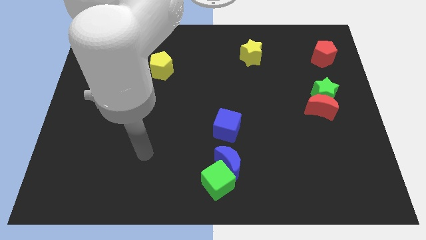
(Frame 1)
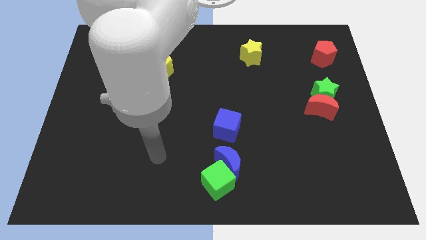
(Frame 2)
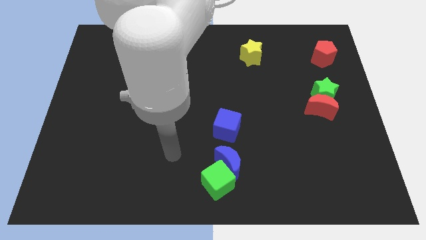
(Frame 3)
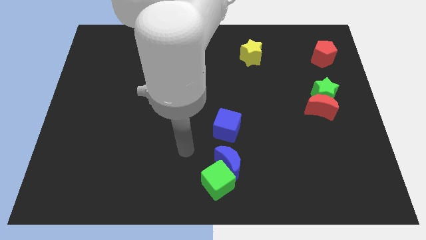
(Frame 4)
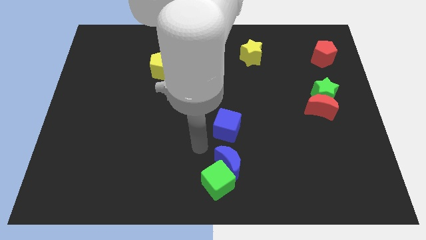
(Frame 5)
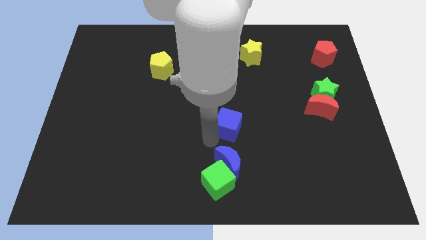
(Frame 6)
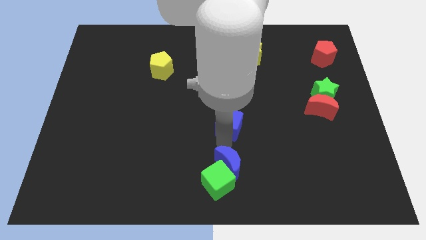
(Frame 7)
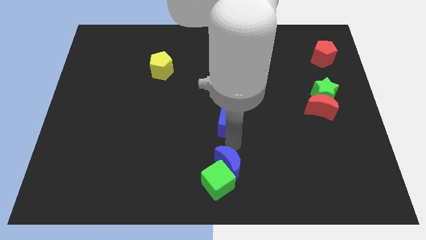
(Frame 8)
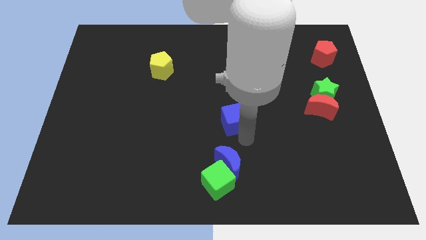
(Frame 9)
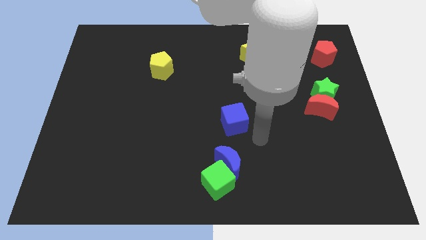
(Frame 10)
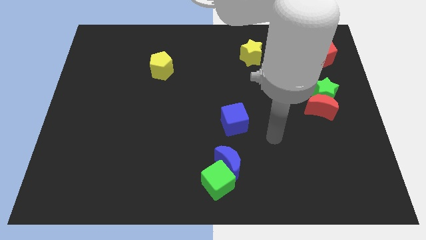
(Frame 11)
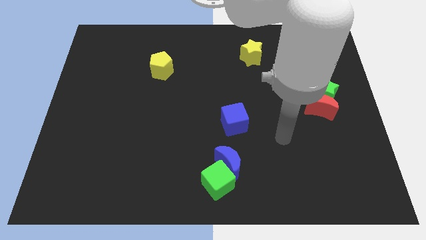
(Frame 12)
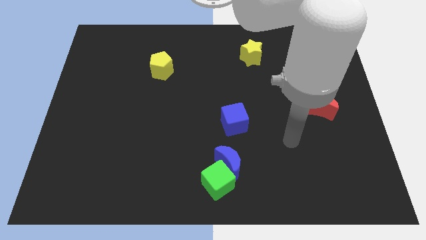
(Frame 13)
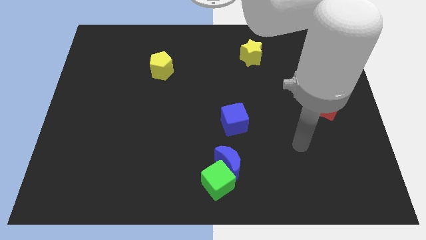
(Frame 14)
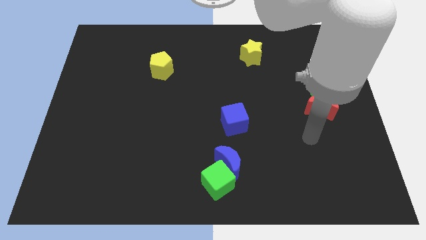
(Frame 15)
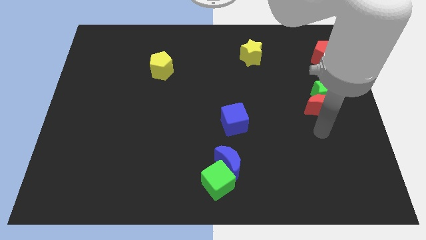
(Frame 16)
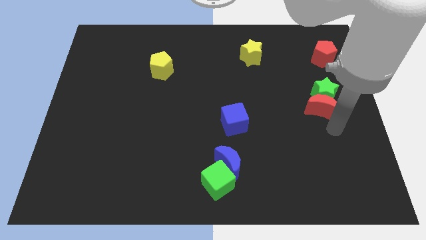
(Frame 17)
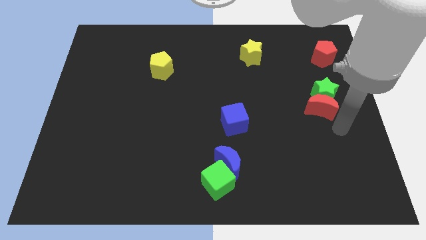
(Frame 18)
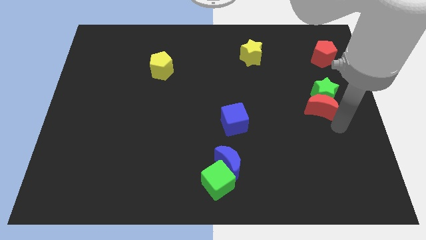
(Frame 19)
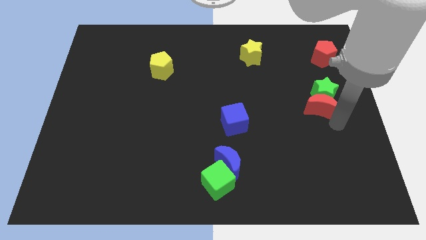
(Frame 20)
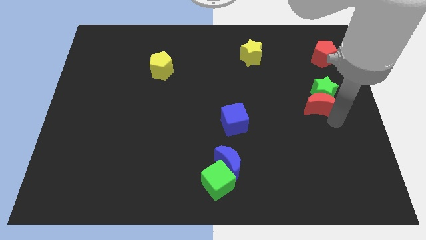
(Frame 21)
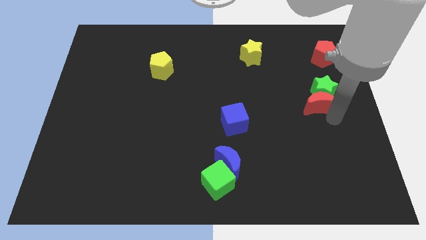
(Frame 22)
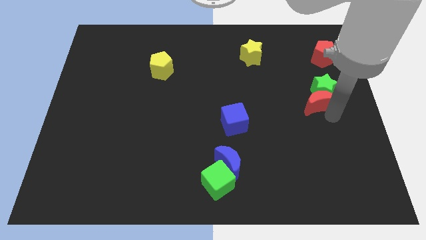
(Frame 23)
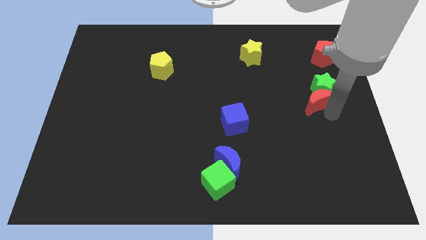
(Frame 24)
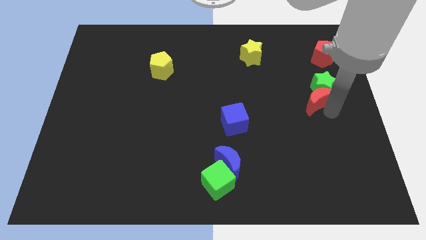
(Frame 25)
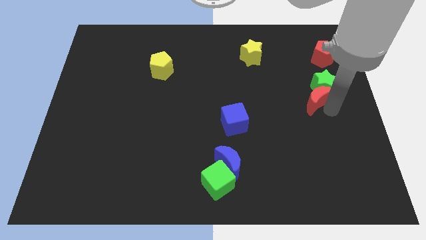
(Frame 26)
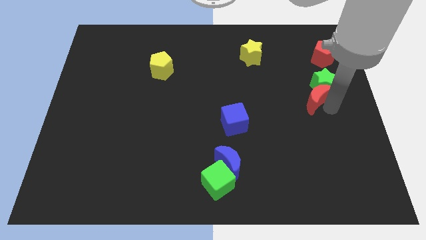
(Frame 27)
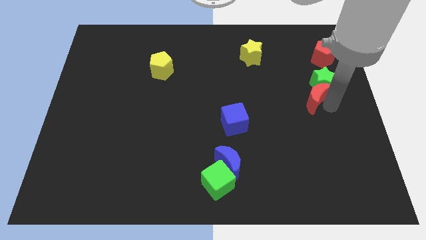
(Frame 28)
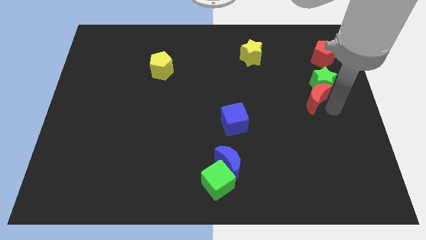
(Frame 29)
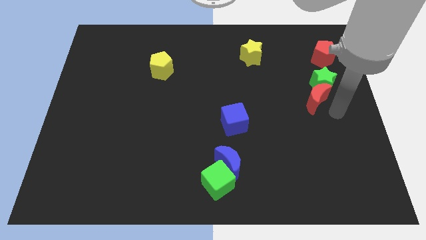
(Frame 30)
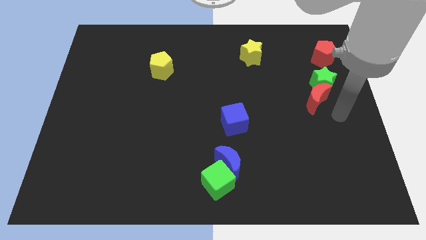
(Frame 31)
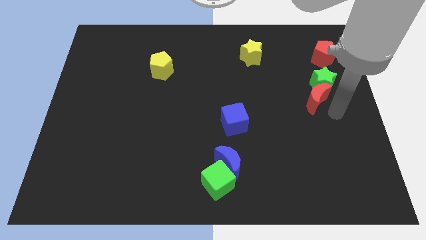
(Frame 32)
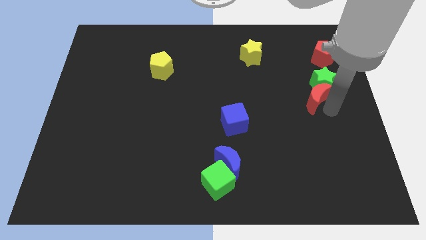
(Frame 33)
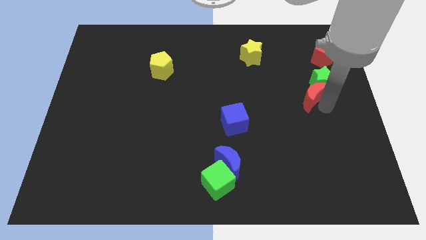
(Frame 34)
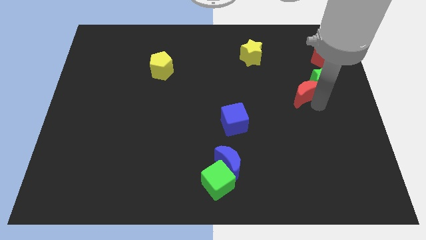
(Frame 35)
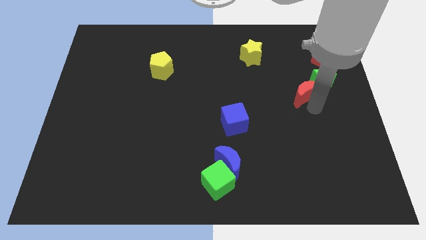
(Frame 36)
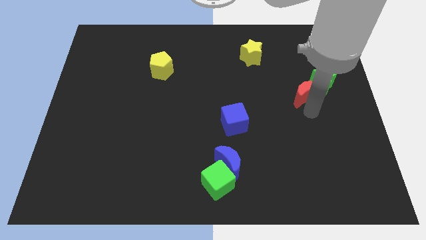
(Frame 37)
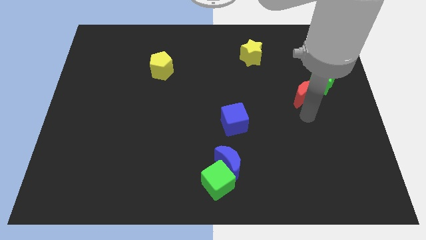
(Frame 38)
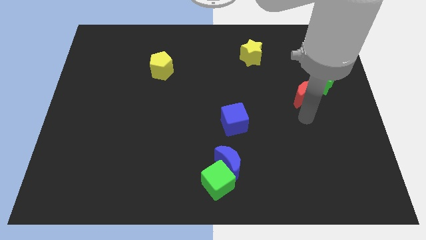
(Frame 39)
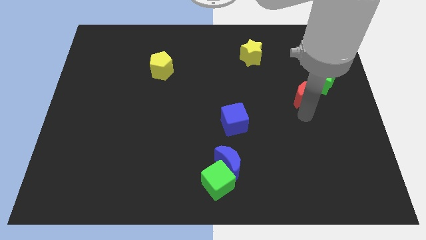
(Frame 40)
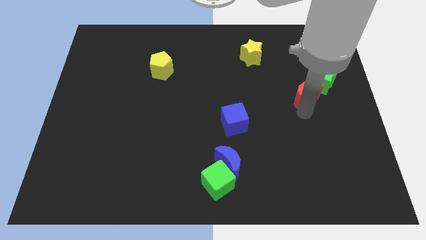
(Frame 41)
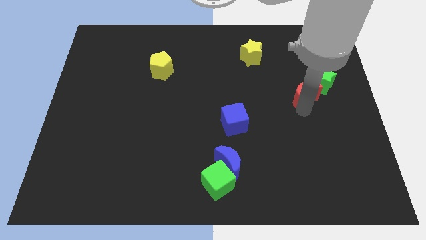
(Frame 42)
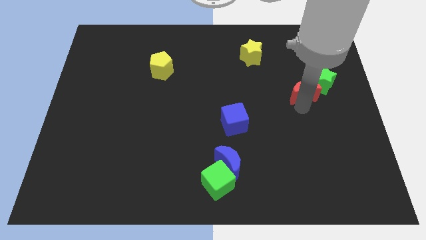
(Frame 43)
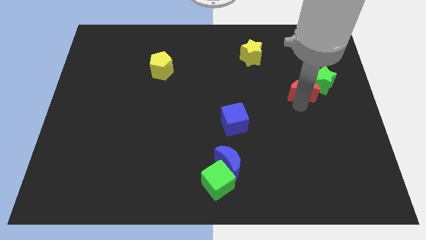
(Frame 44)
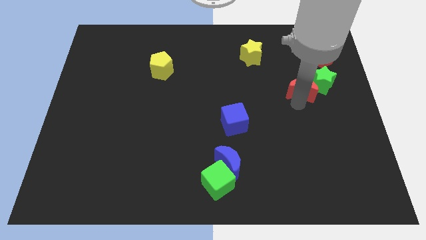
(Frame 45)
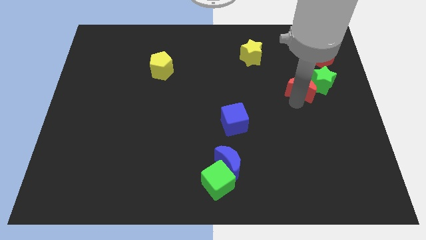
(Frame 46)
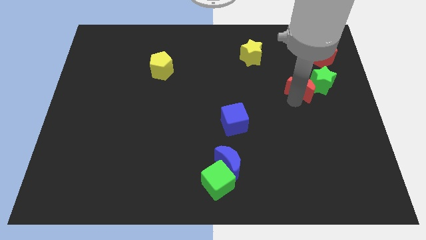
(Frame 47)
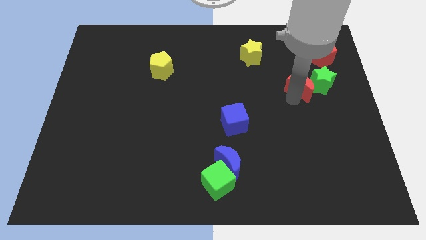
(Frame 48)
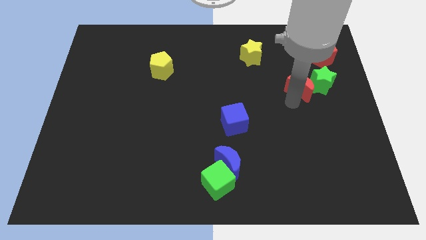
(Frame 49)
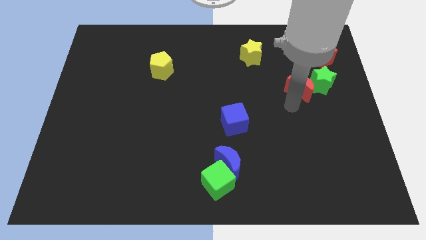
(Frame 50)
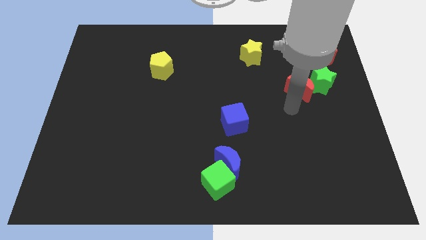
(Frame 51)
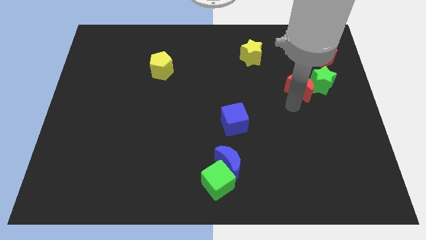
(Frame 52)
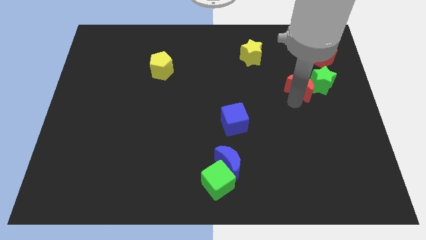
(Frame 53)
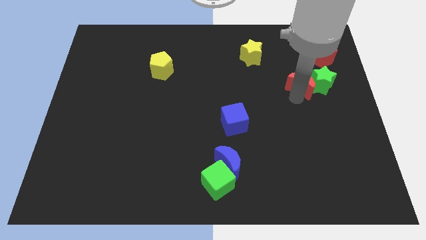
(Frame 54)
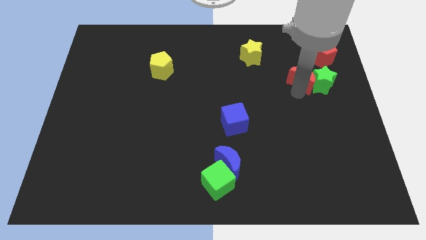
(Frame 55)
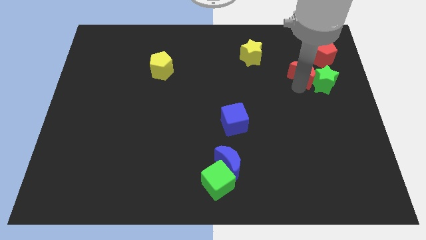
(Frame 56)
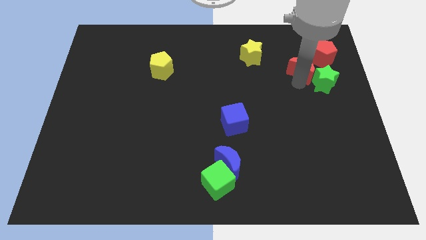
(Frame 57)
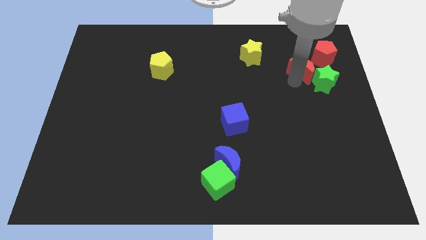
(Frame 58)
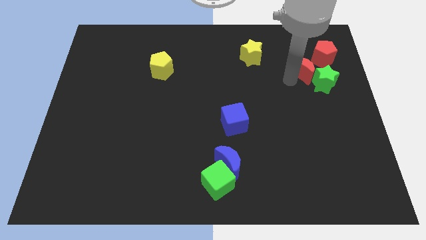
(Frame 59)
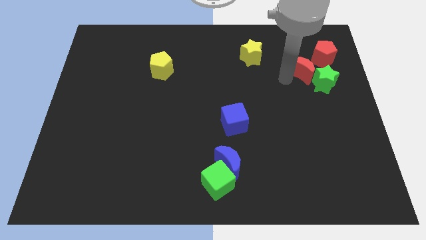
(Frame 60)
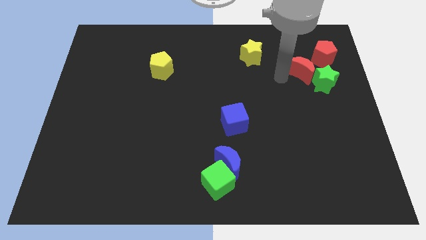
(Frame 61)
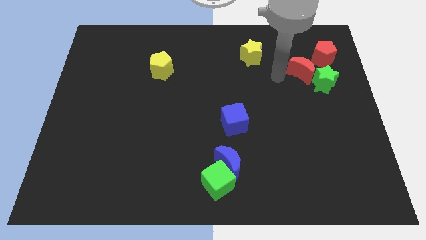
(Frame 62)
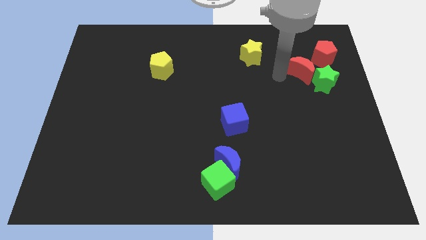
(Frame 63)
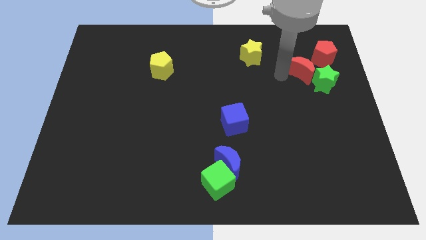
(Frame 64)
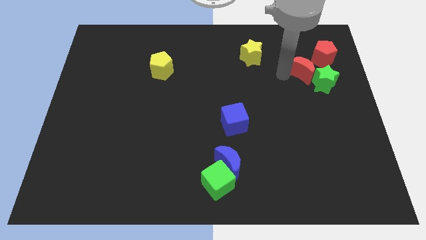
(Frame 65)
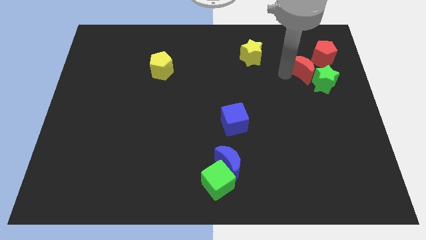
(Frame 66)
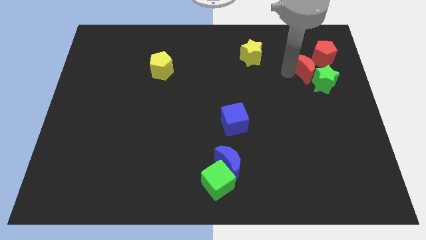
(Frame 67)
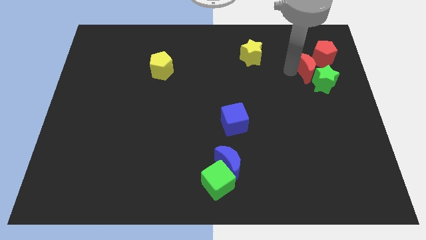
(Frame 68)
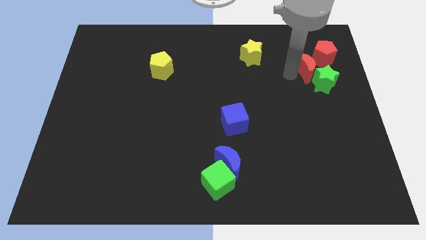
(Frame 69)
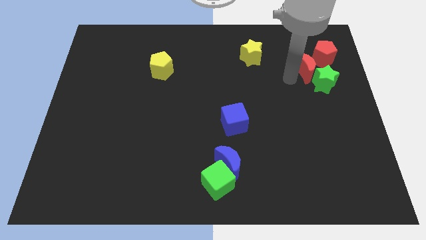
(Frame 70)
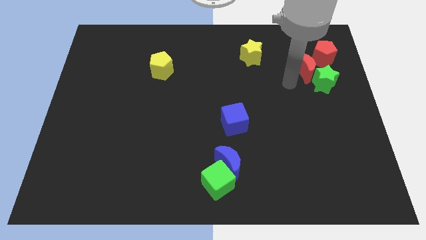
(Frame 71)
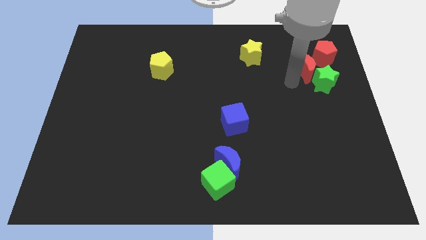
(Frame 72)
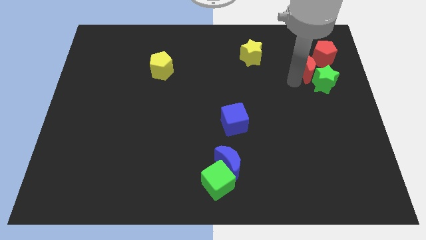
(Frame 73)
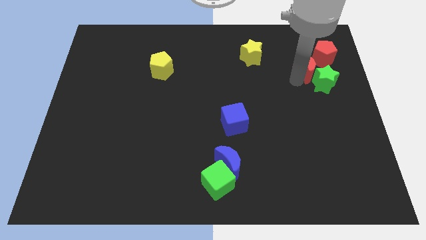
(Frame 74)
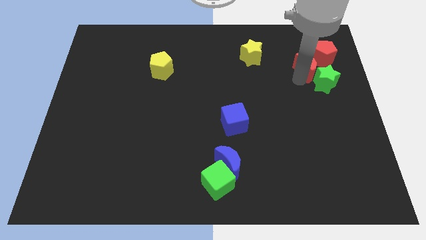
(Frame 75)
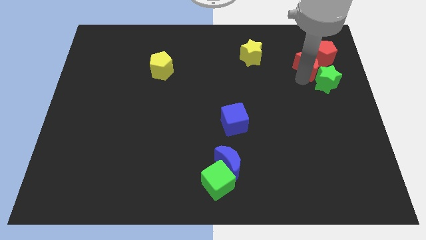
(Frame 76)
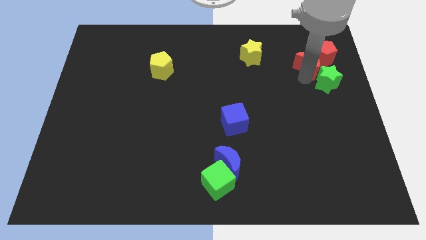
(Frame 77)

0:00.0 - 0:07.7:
slide the red moon close to the red pentagon
